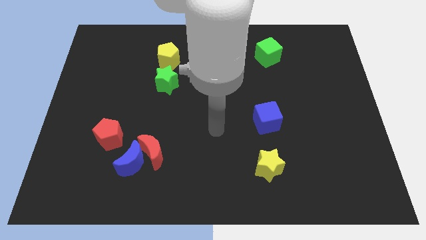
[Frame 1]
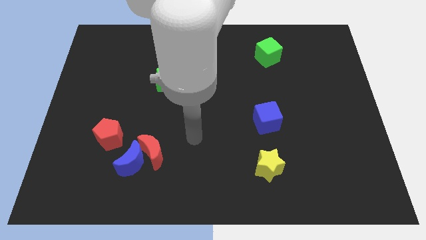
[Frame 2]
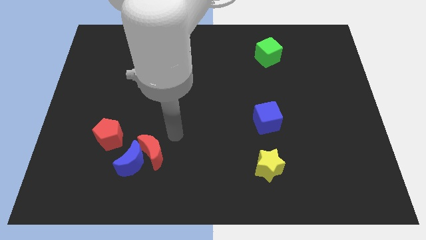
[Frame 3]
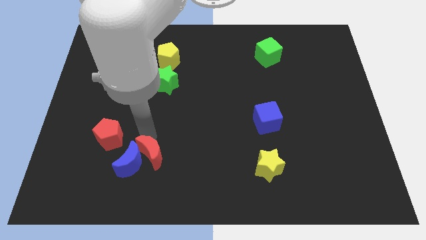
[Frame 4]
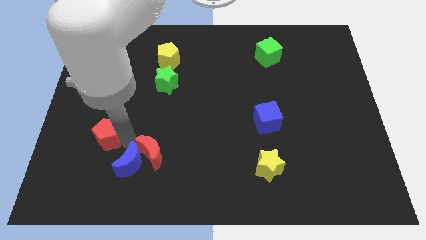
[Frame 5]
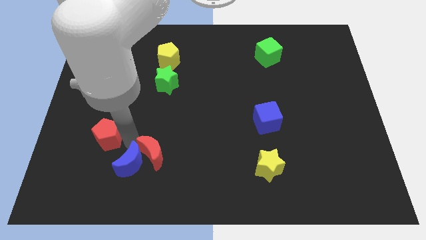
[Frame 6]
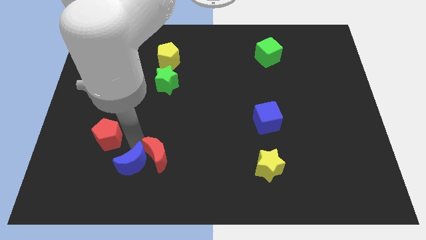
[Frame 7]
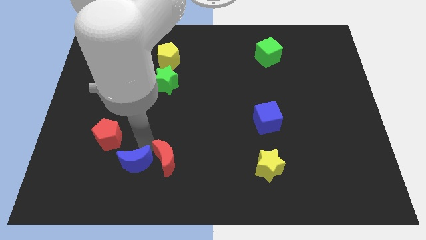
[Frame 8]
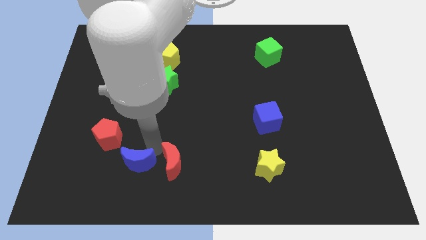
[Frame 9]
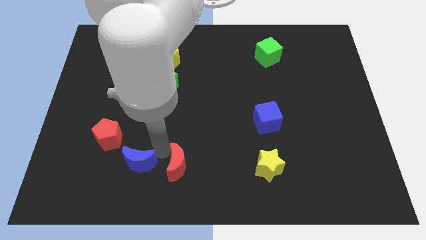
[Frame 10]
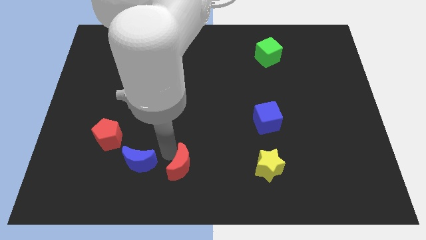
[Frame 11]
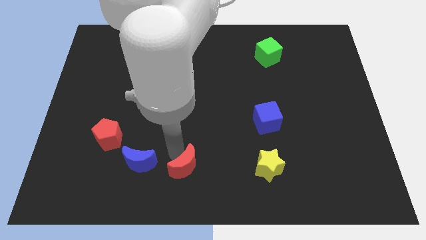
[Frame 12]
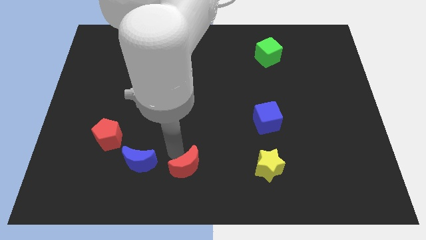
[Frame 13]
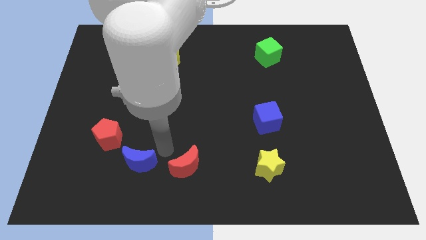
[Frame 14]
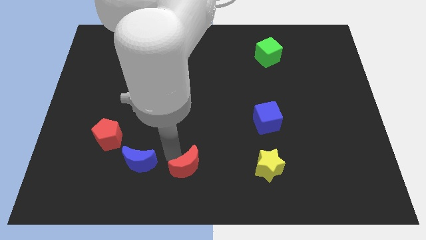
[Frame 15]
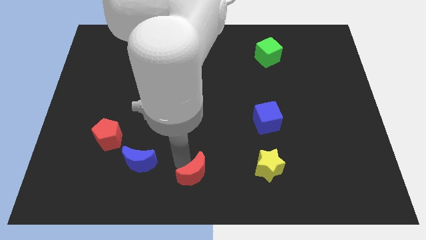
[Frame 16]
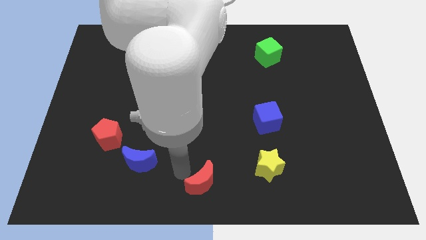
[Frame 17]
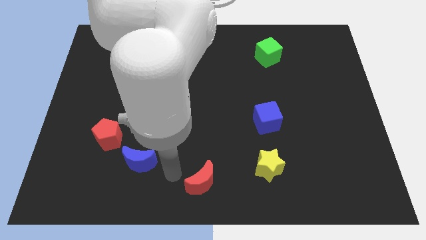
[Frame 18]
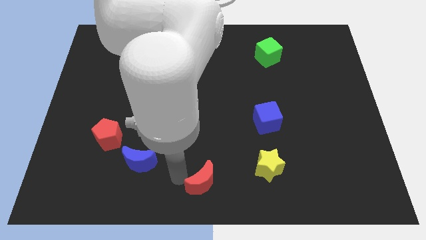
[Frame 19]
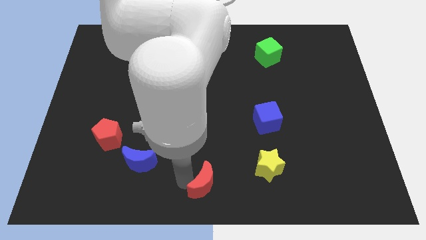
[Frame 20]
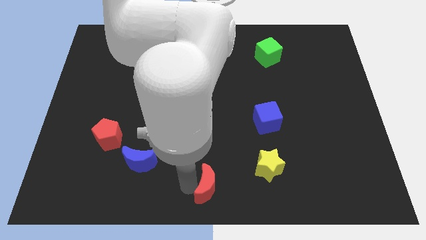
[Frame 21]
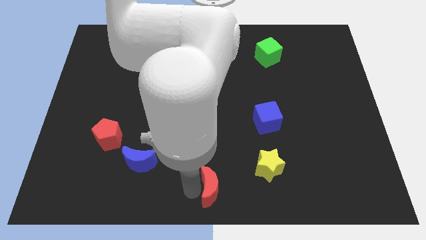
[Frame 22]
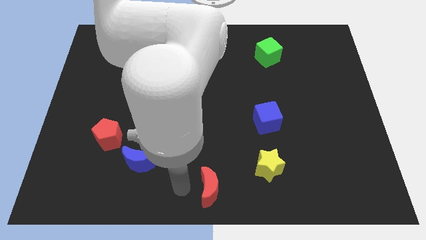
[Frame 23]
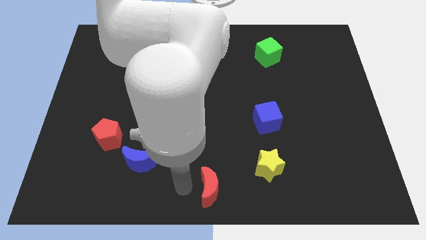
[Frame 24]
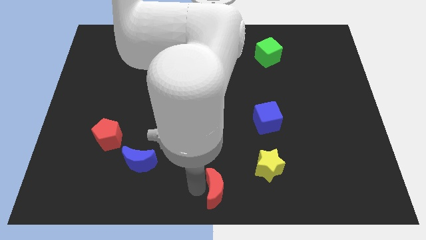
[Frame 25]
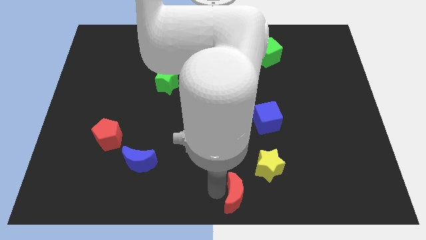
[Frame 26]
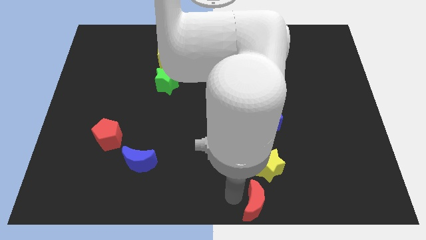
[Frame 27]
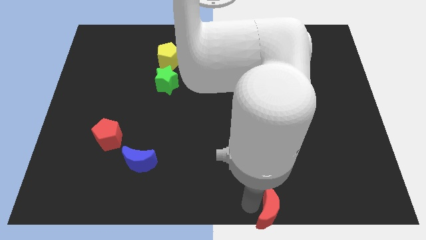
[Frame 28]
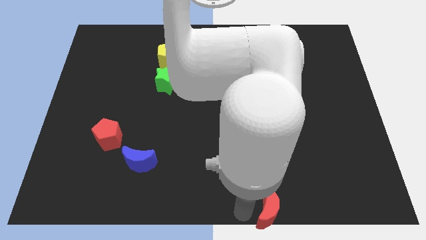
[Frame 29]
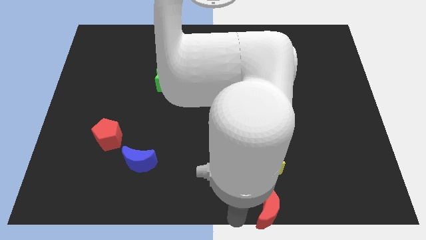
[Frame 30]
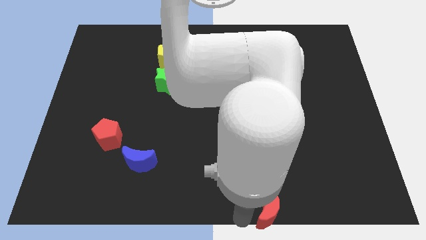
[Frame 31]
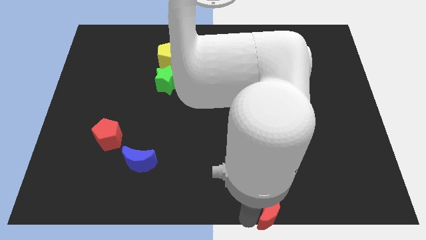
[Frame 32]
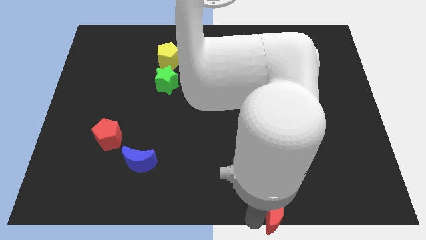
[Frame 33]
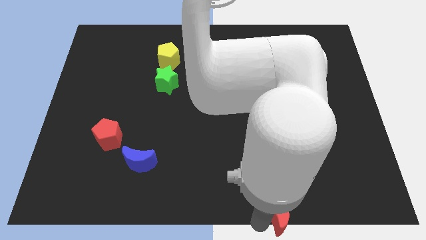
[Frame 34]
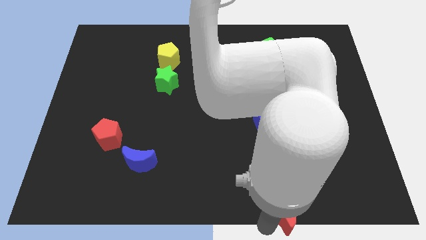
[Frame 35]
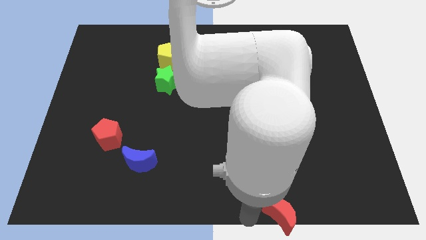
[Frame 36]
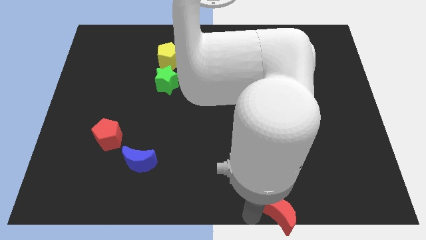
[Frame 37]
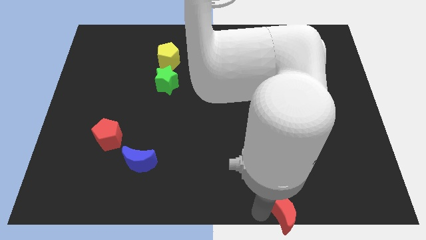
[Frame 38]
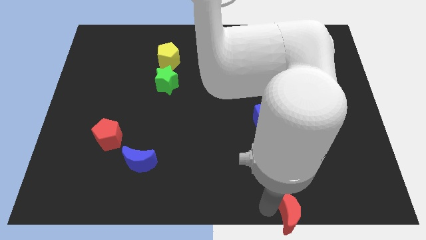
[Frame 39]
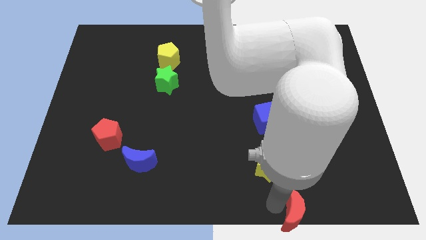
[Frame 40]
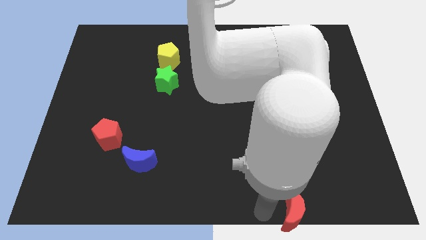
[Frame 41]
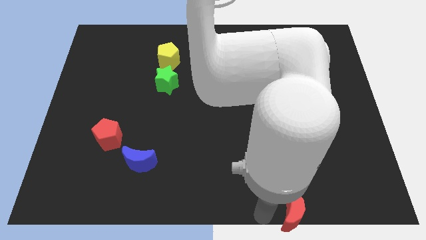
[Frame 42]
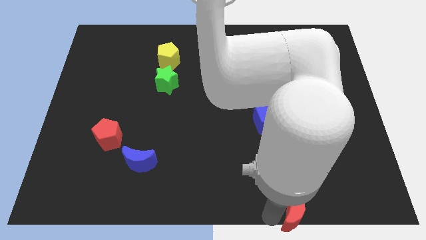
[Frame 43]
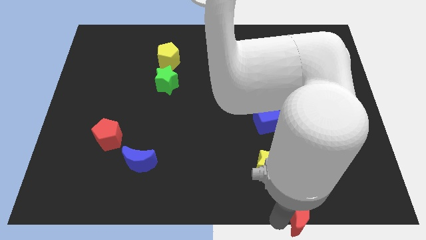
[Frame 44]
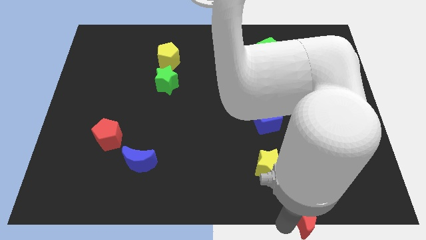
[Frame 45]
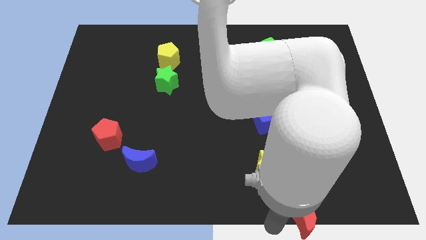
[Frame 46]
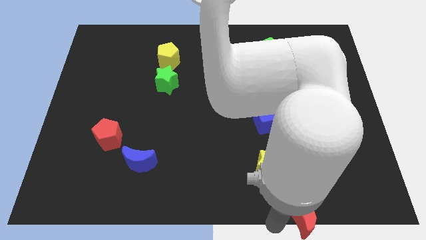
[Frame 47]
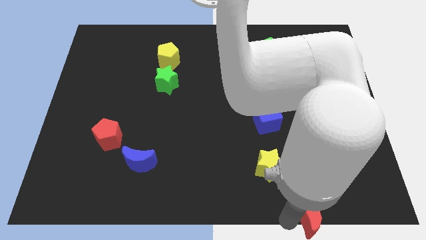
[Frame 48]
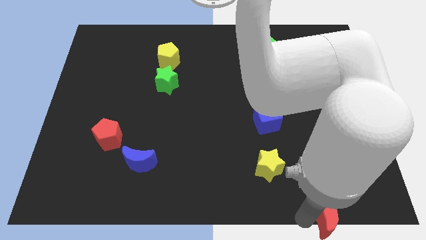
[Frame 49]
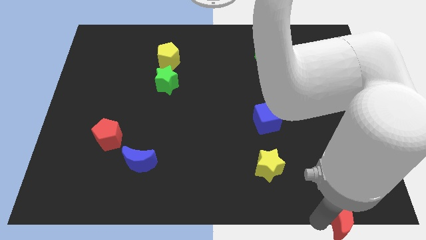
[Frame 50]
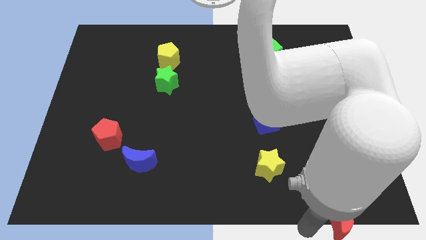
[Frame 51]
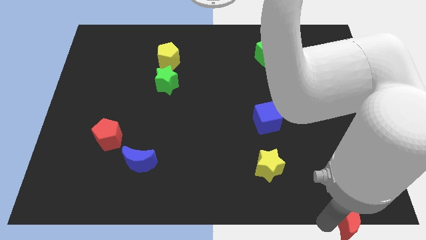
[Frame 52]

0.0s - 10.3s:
move the red moon to the bottom right of the board

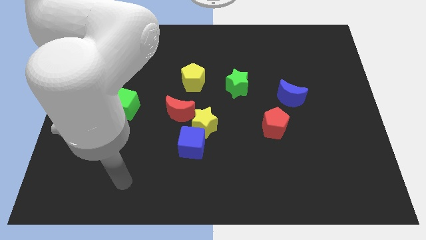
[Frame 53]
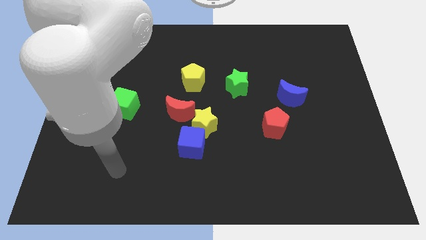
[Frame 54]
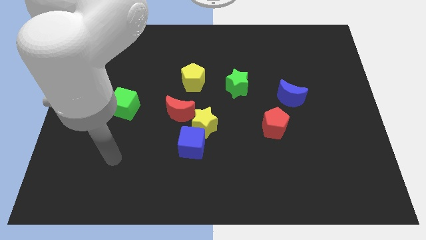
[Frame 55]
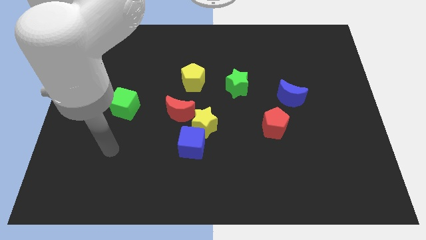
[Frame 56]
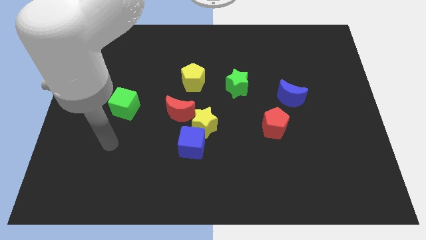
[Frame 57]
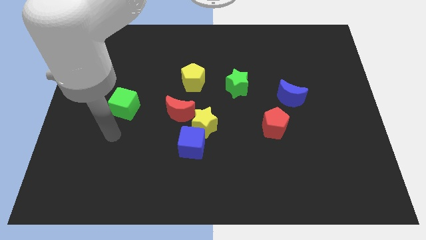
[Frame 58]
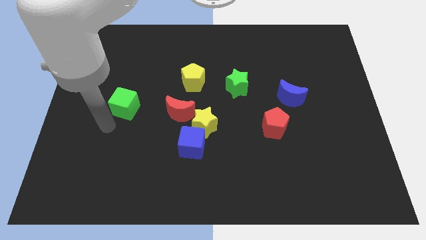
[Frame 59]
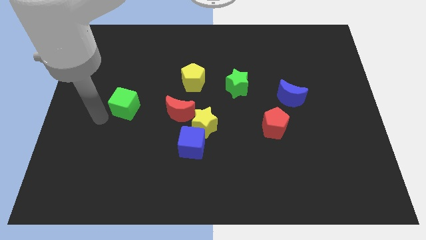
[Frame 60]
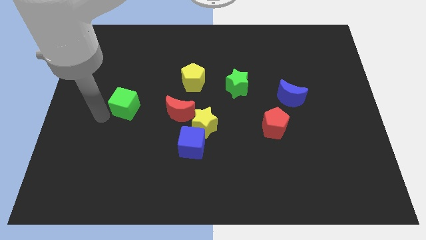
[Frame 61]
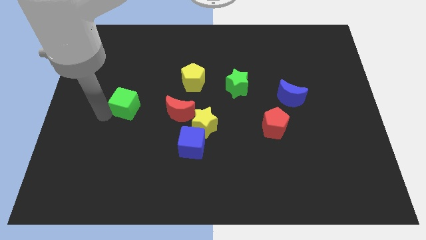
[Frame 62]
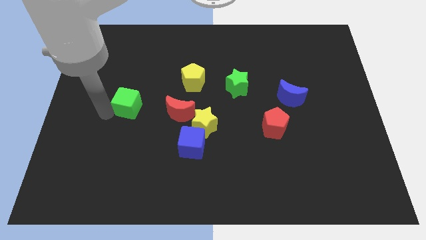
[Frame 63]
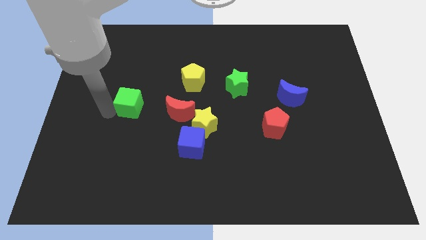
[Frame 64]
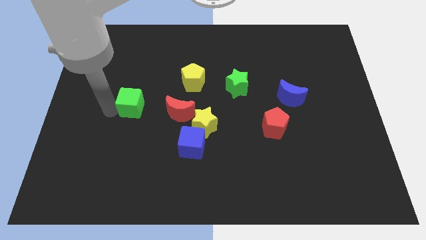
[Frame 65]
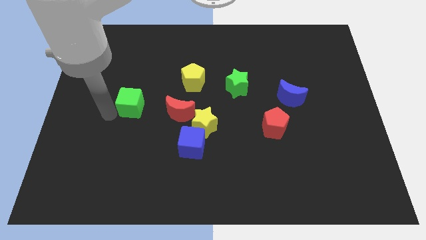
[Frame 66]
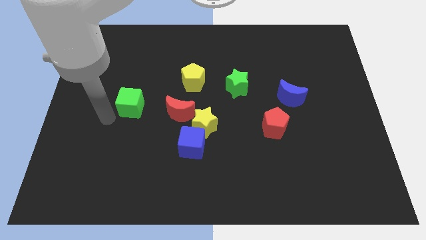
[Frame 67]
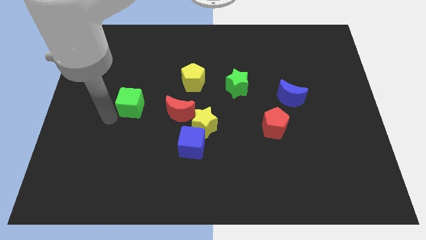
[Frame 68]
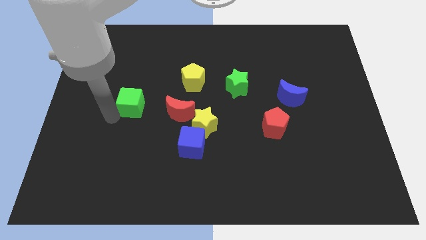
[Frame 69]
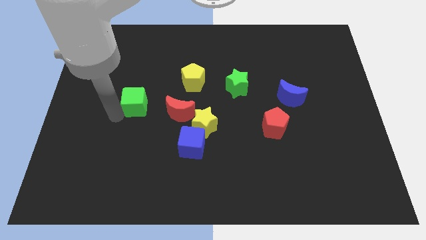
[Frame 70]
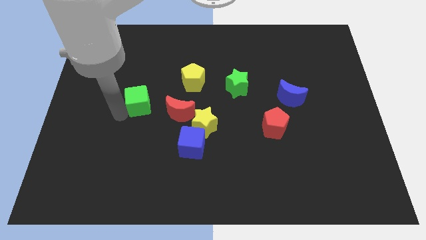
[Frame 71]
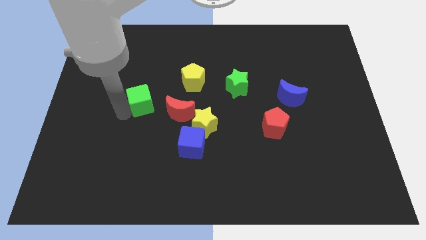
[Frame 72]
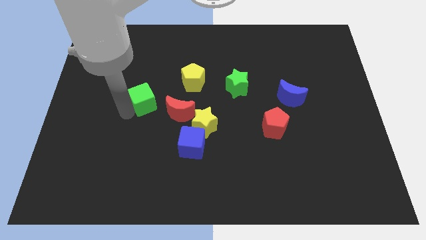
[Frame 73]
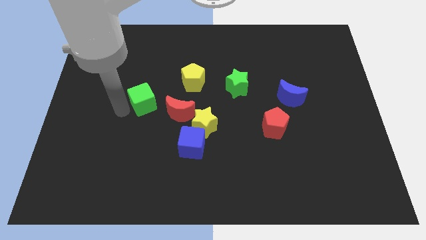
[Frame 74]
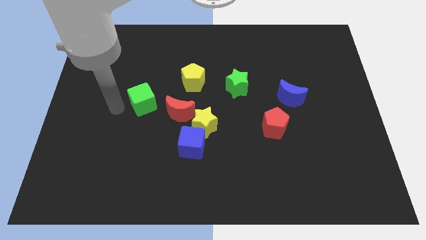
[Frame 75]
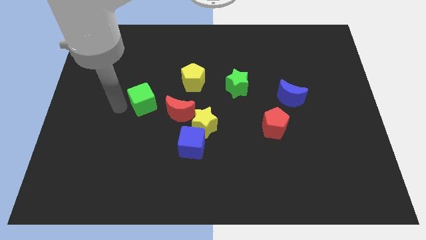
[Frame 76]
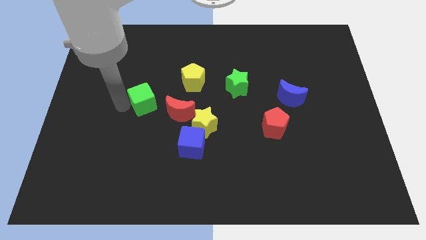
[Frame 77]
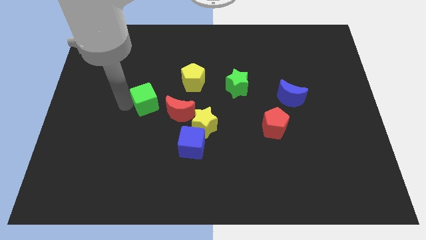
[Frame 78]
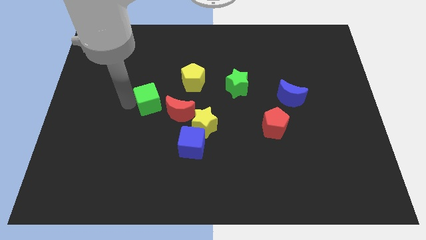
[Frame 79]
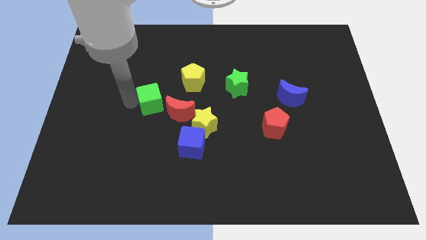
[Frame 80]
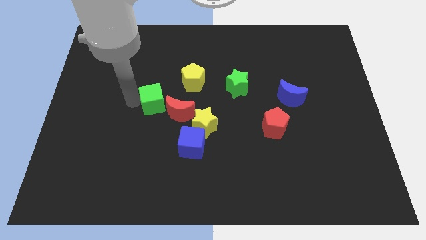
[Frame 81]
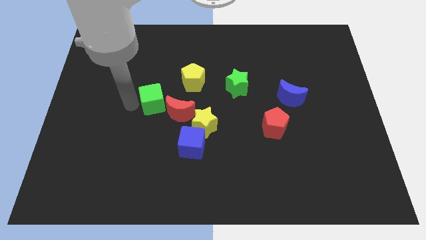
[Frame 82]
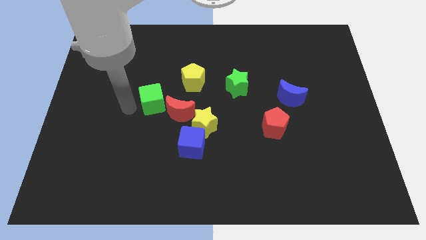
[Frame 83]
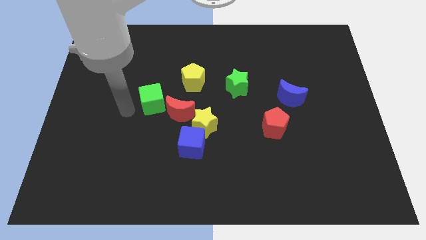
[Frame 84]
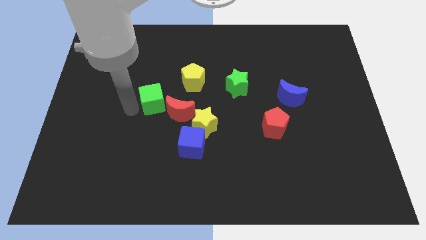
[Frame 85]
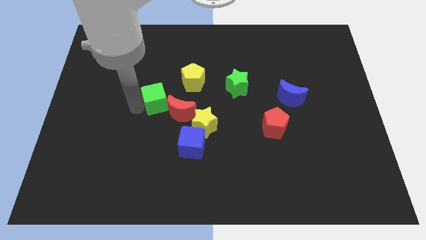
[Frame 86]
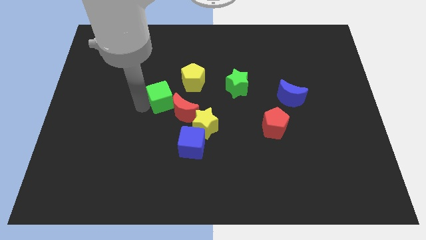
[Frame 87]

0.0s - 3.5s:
put the green cube to the middle of the board
